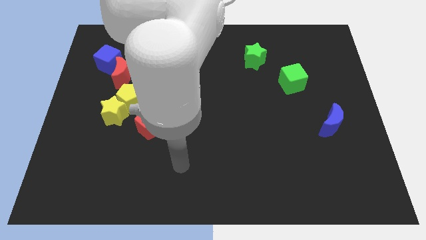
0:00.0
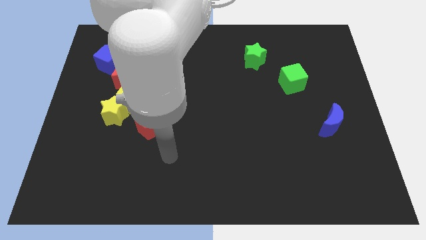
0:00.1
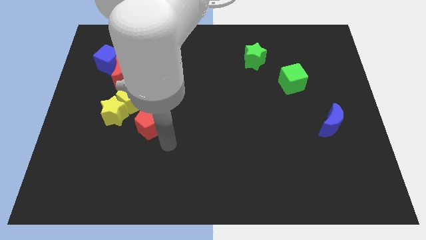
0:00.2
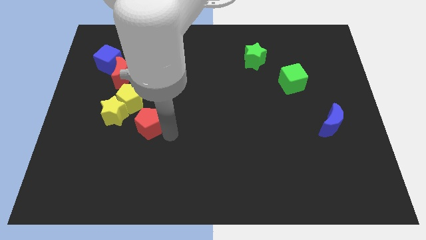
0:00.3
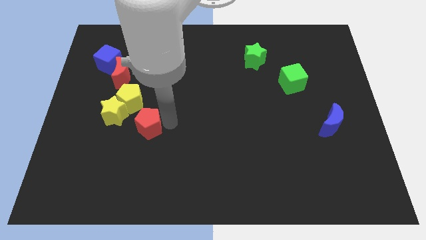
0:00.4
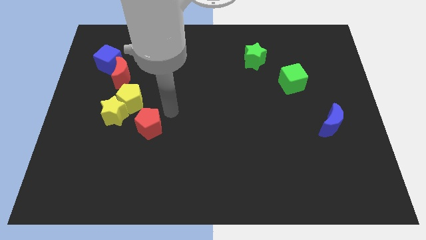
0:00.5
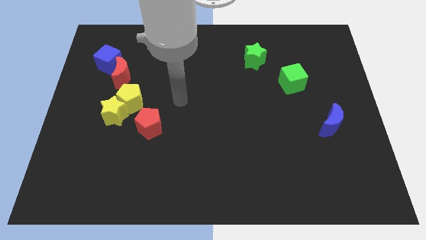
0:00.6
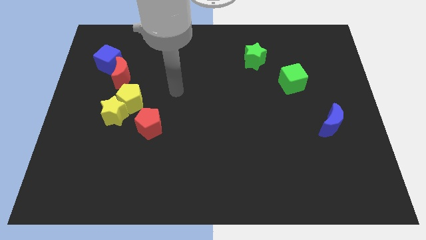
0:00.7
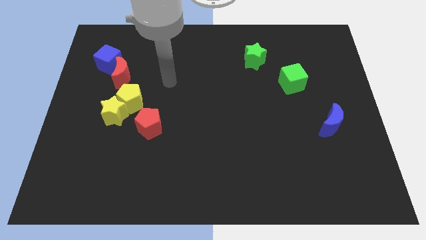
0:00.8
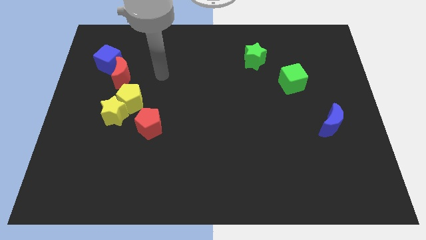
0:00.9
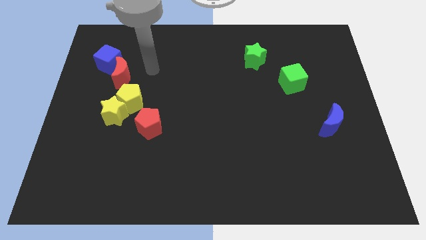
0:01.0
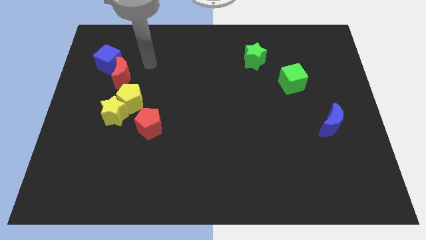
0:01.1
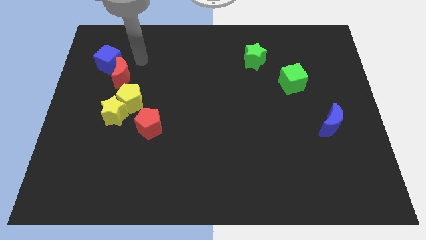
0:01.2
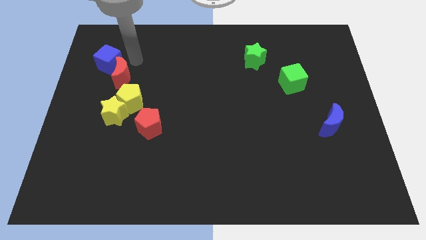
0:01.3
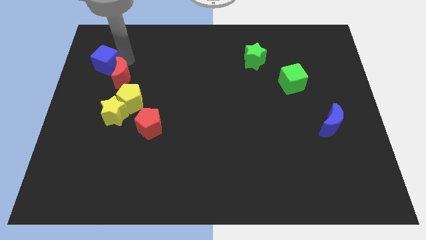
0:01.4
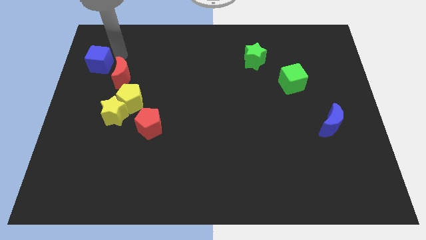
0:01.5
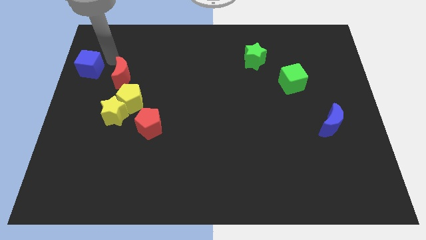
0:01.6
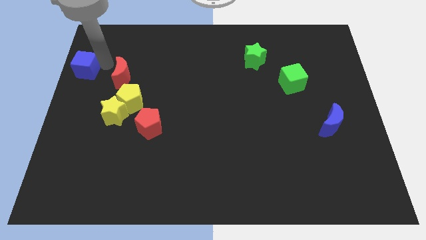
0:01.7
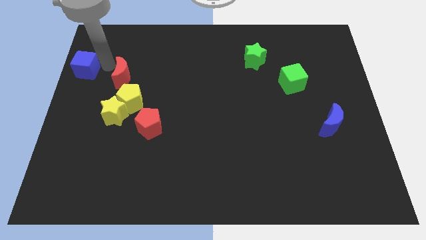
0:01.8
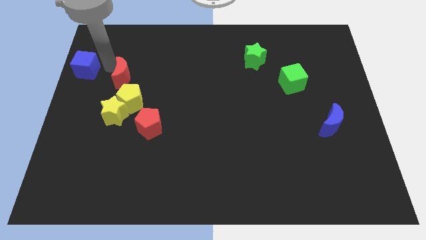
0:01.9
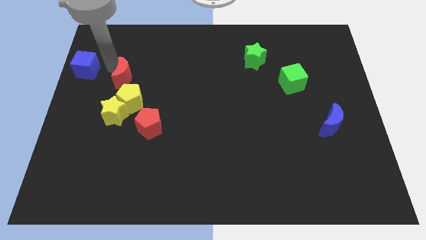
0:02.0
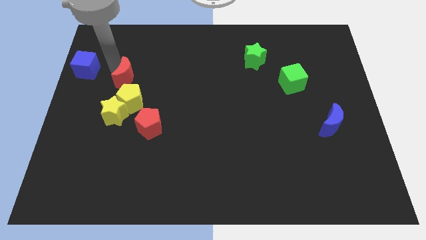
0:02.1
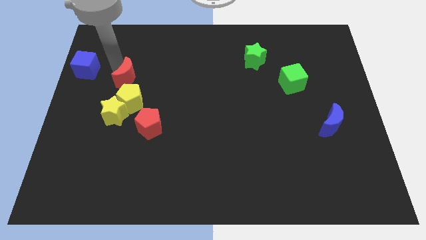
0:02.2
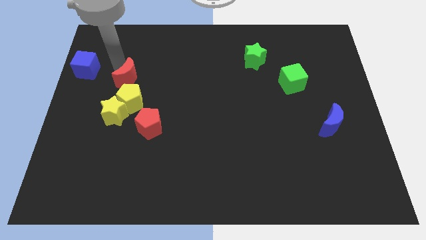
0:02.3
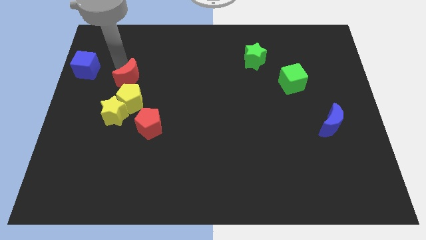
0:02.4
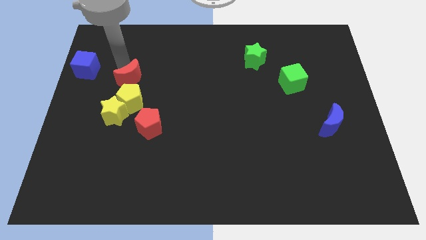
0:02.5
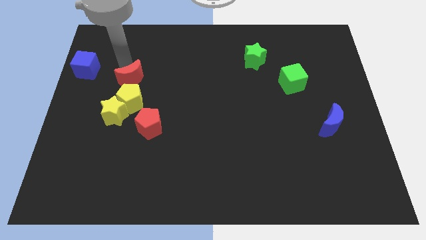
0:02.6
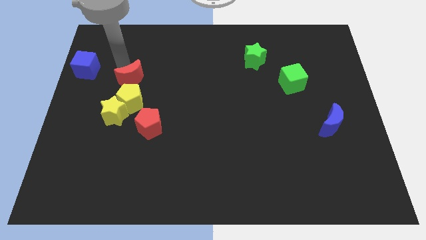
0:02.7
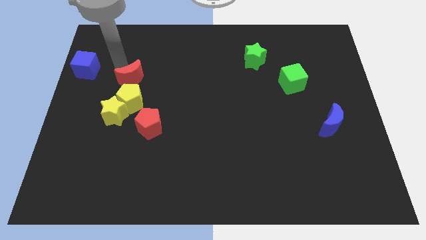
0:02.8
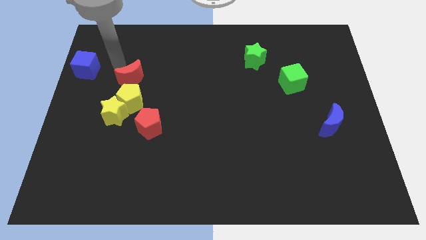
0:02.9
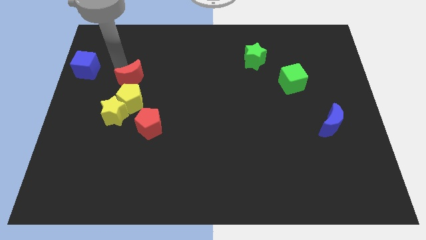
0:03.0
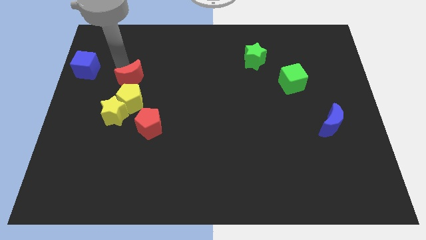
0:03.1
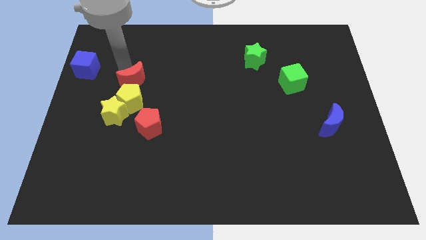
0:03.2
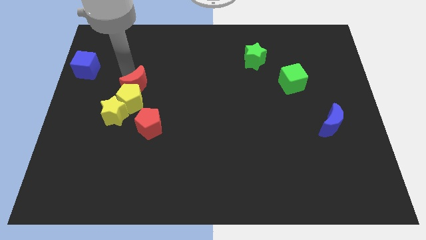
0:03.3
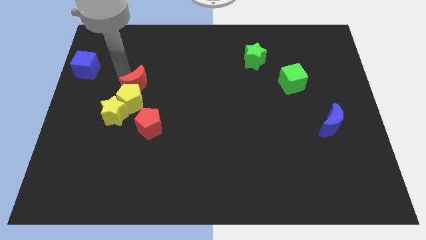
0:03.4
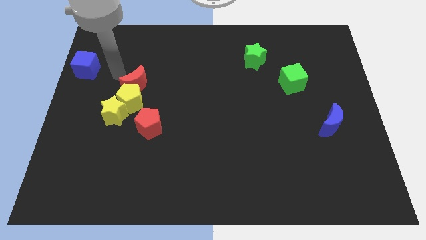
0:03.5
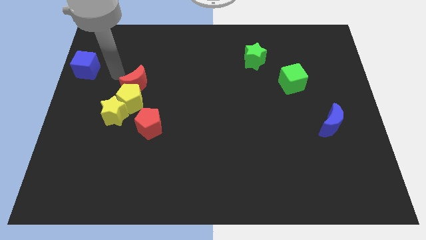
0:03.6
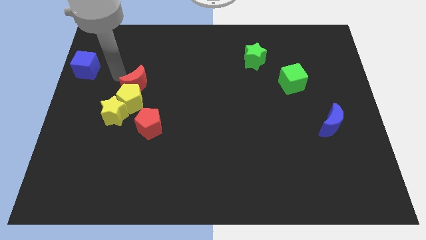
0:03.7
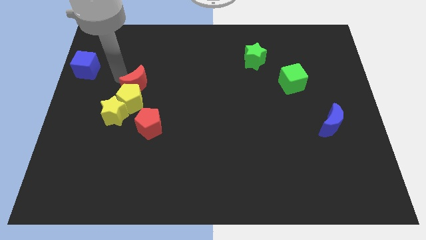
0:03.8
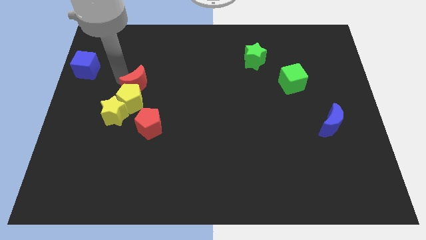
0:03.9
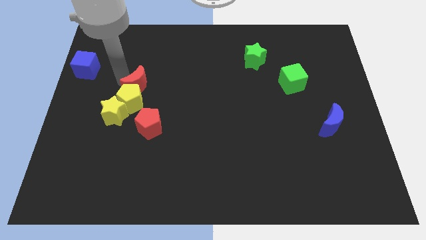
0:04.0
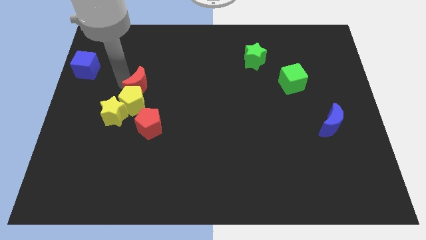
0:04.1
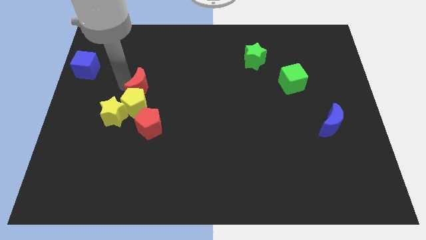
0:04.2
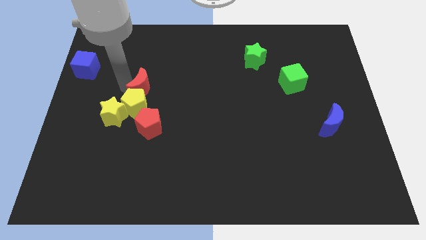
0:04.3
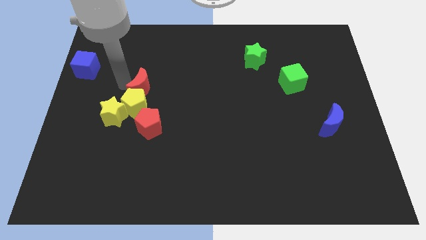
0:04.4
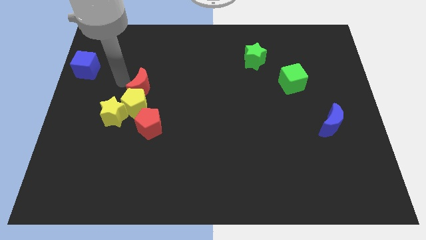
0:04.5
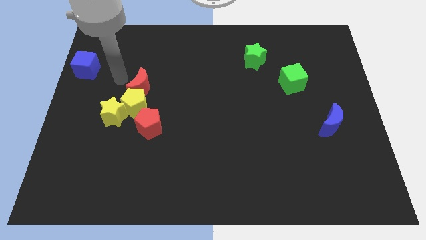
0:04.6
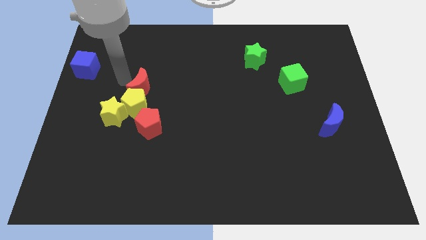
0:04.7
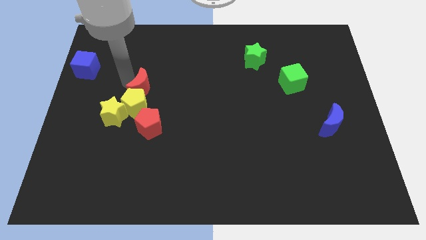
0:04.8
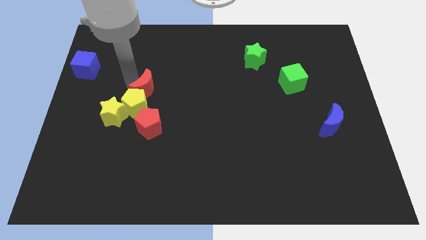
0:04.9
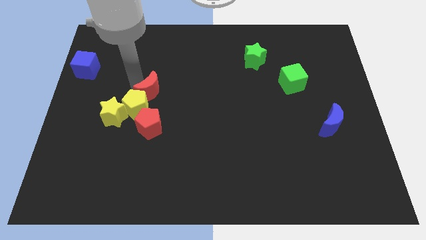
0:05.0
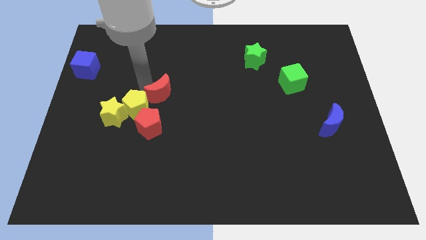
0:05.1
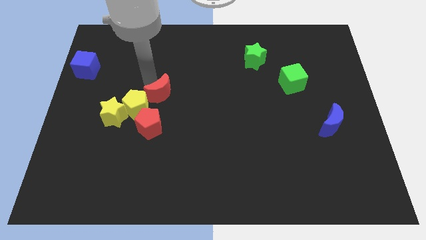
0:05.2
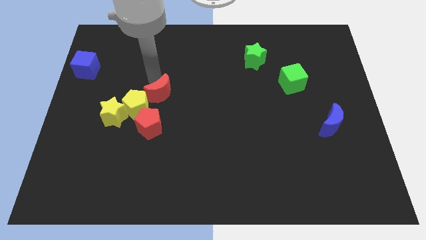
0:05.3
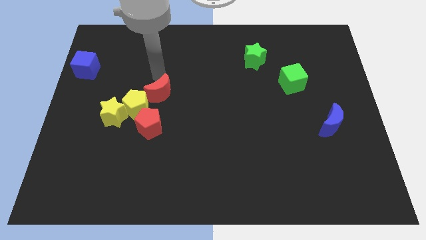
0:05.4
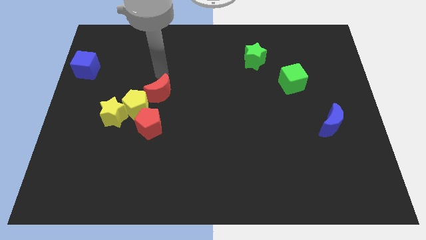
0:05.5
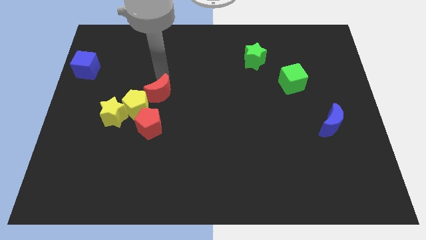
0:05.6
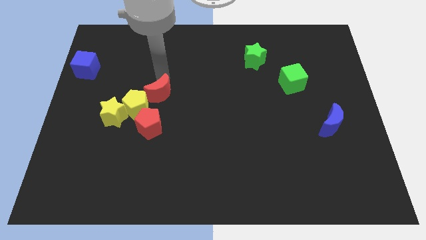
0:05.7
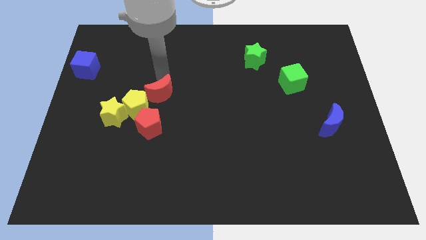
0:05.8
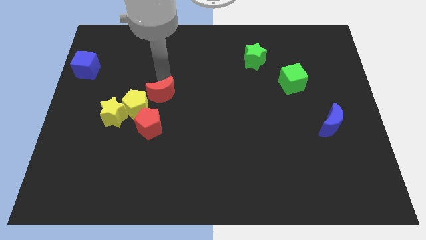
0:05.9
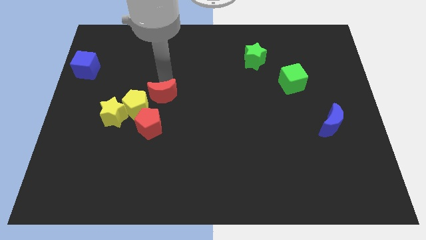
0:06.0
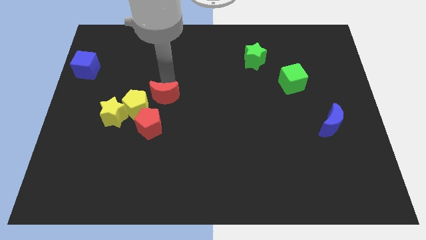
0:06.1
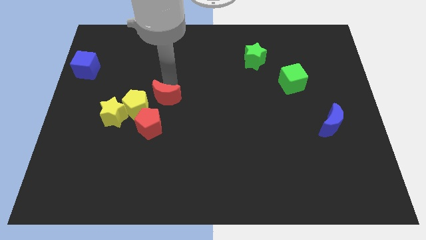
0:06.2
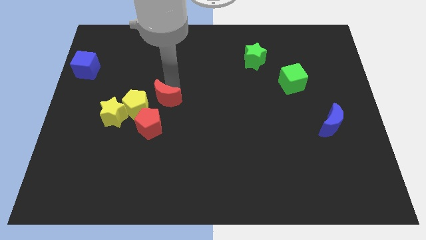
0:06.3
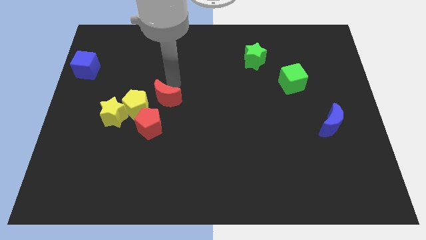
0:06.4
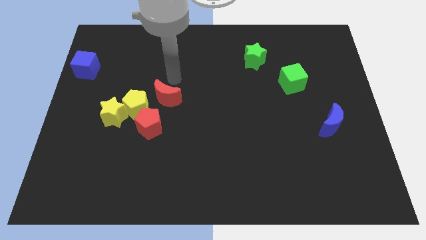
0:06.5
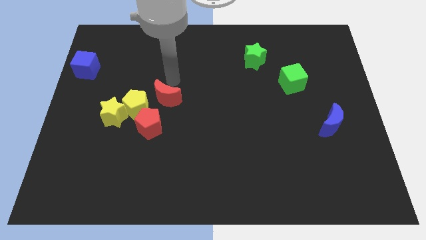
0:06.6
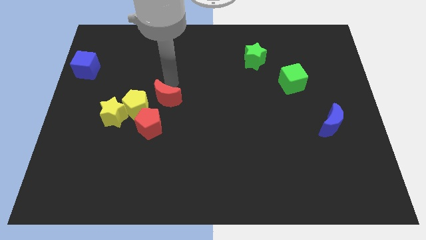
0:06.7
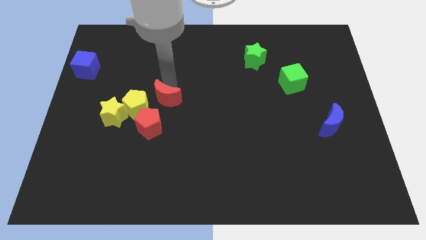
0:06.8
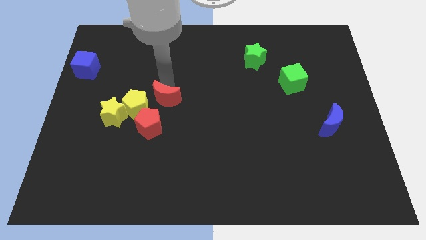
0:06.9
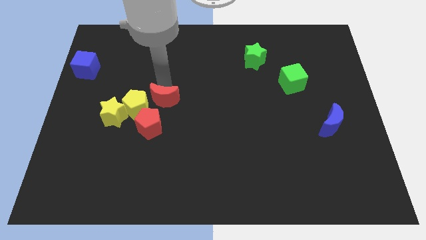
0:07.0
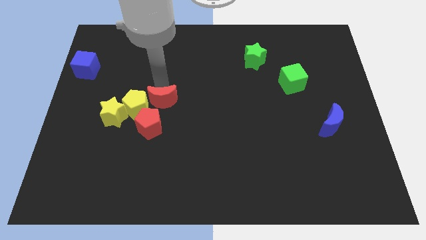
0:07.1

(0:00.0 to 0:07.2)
put the red moon right of the yellow star
